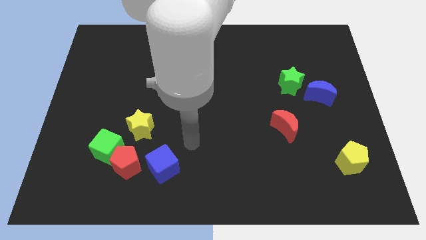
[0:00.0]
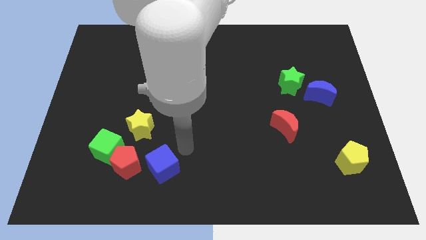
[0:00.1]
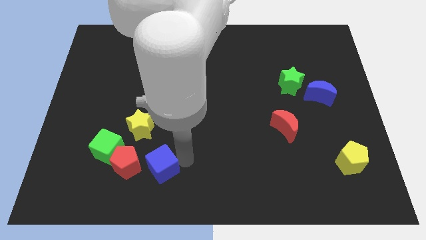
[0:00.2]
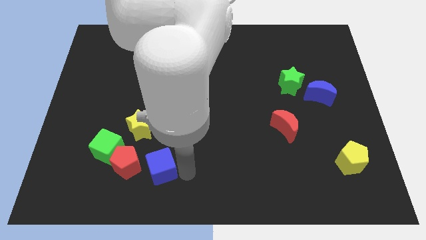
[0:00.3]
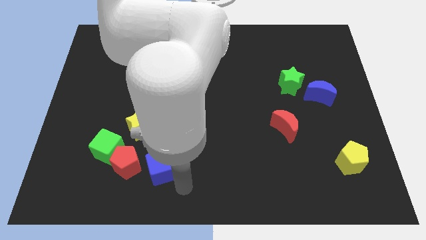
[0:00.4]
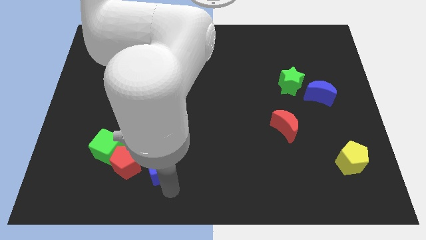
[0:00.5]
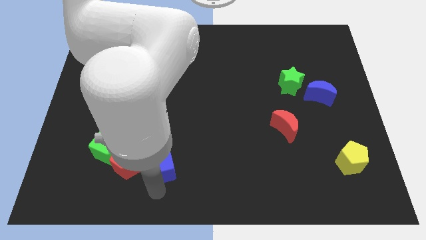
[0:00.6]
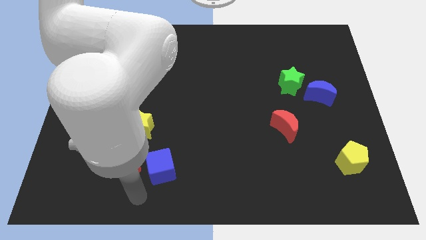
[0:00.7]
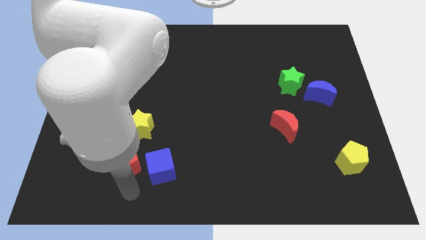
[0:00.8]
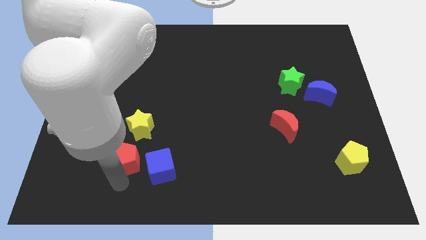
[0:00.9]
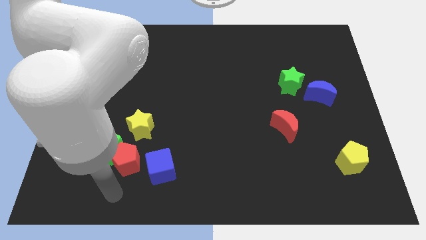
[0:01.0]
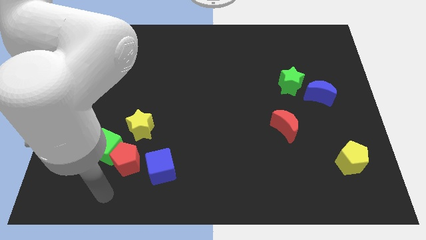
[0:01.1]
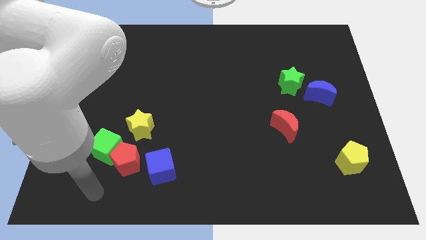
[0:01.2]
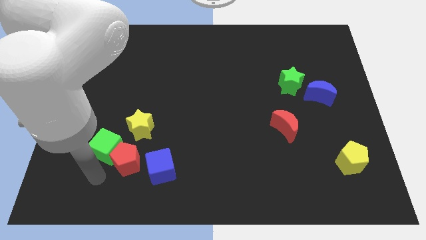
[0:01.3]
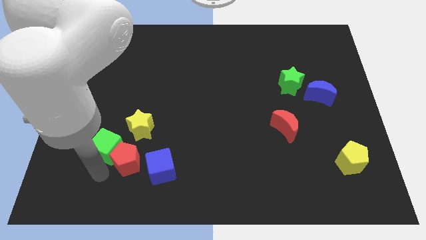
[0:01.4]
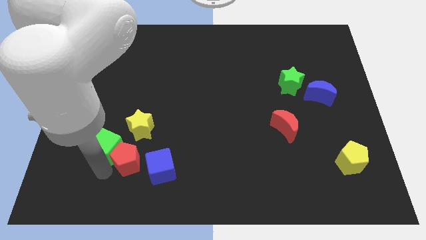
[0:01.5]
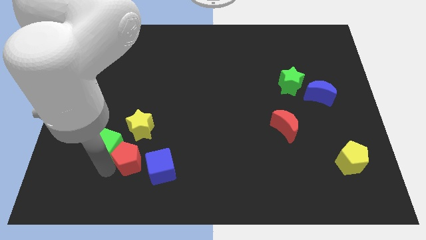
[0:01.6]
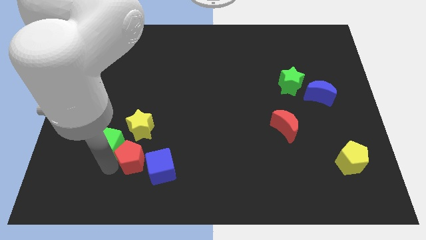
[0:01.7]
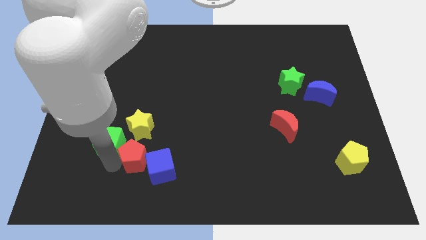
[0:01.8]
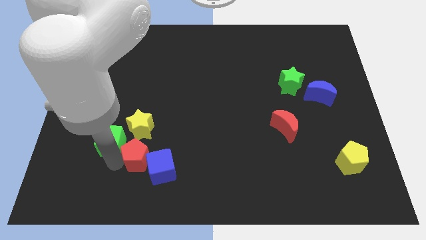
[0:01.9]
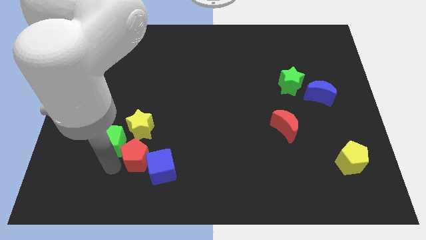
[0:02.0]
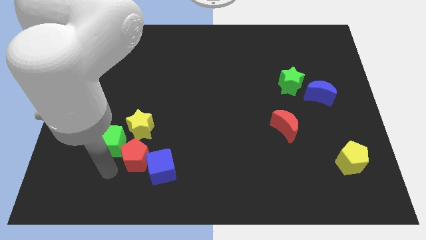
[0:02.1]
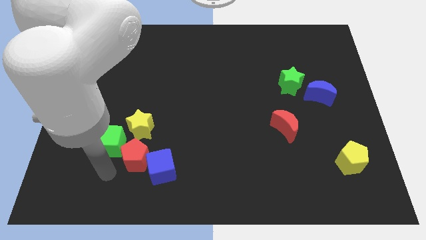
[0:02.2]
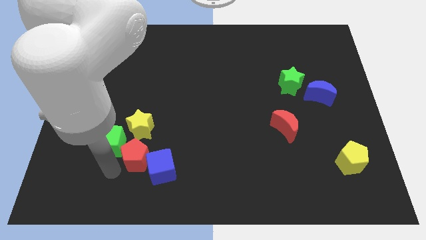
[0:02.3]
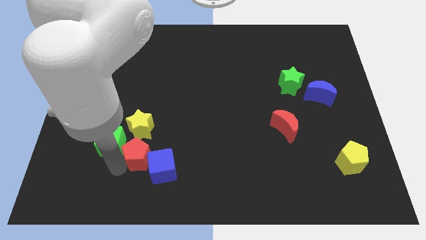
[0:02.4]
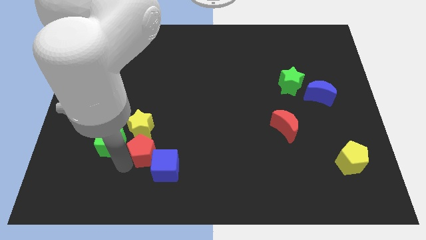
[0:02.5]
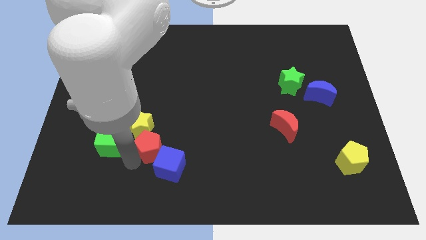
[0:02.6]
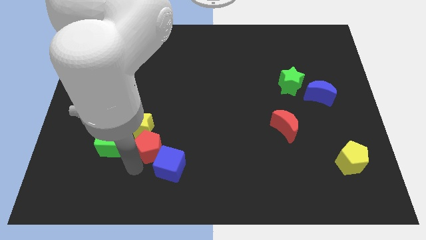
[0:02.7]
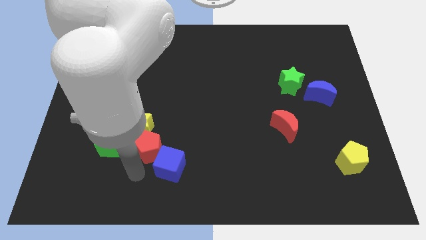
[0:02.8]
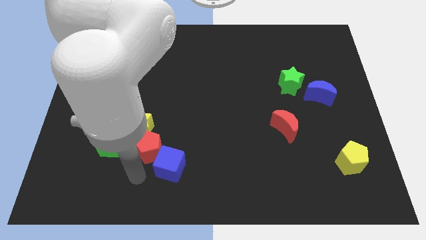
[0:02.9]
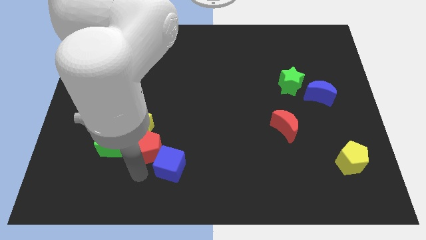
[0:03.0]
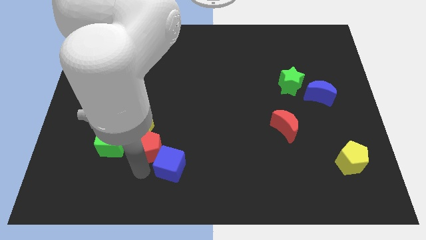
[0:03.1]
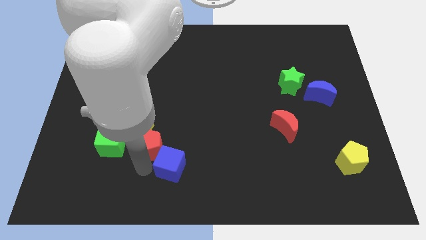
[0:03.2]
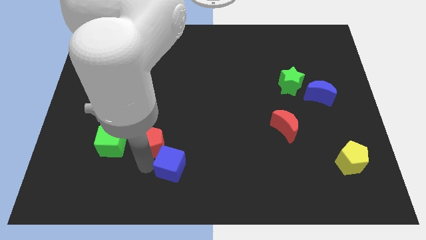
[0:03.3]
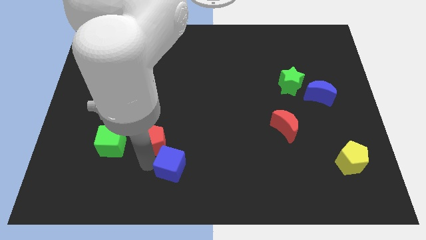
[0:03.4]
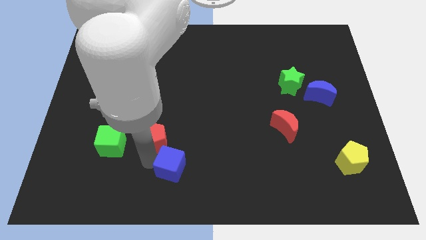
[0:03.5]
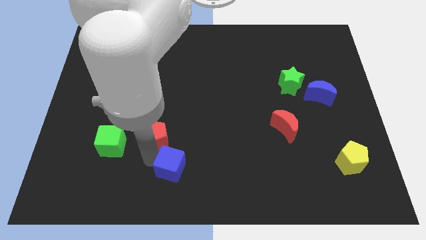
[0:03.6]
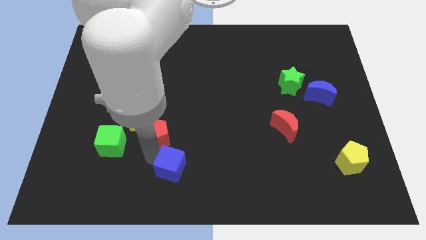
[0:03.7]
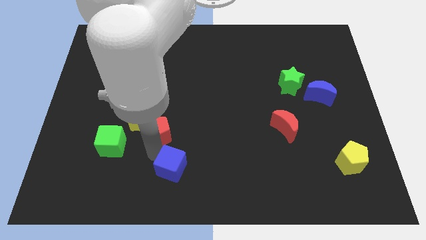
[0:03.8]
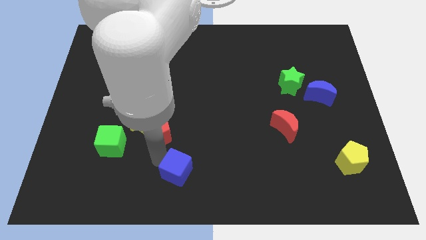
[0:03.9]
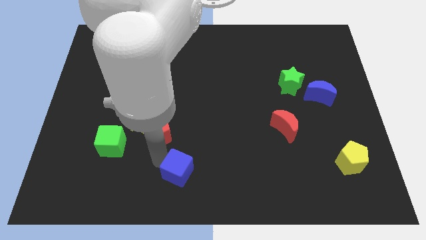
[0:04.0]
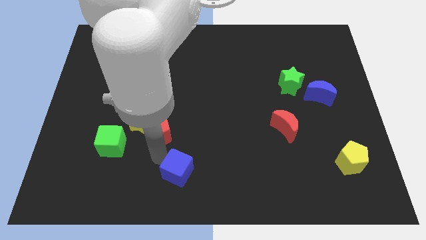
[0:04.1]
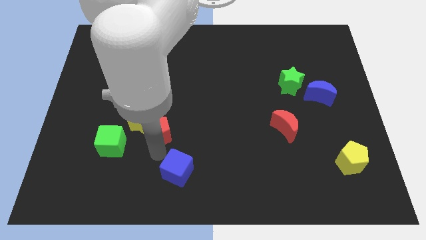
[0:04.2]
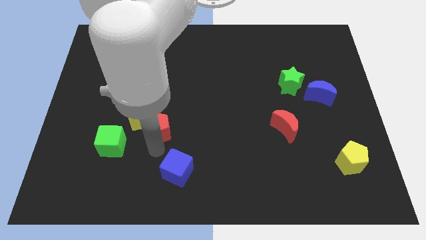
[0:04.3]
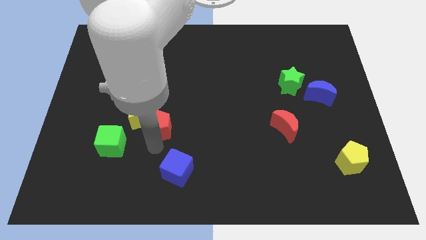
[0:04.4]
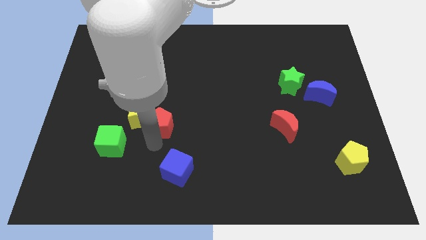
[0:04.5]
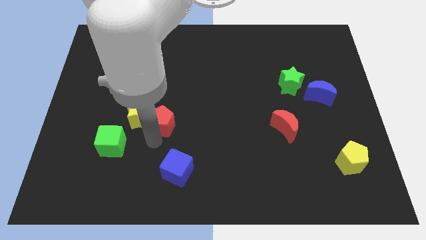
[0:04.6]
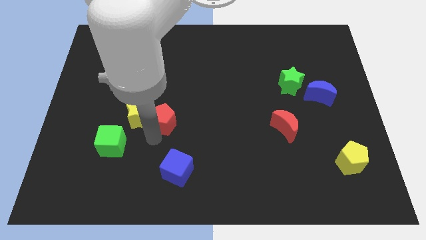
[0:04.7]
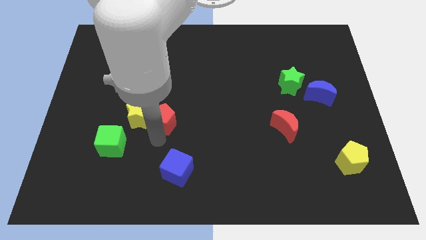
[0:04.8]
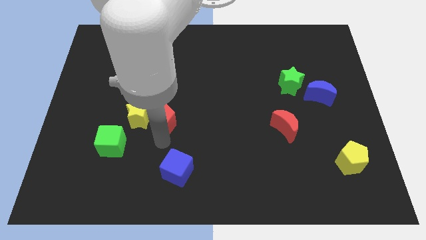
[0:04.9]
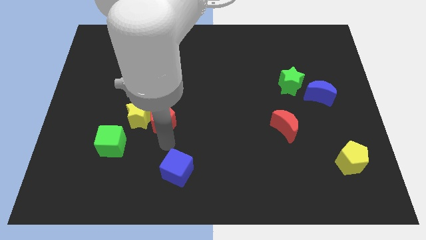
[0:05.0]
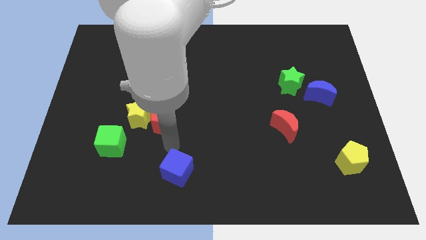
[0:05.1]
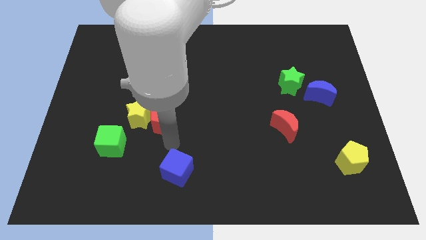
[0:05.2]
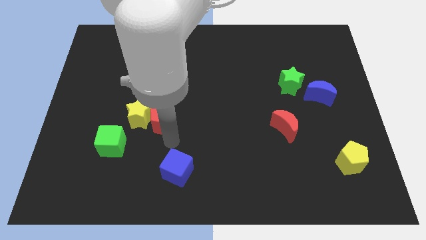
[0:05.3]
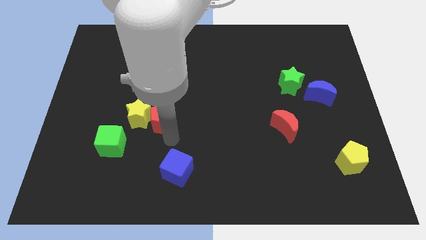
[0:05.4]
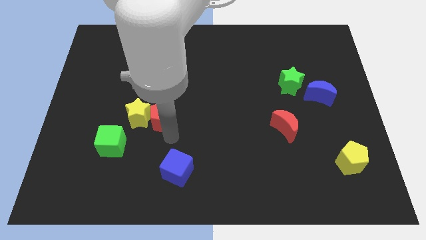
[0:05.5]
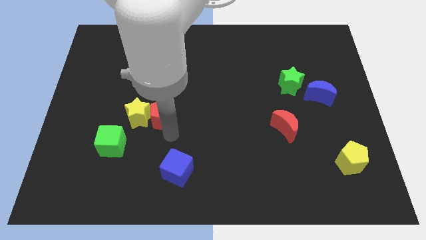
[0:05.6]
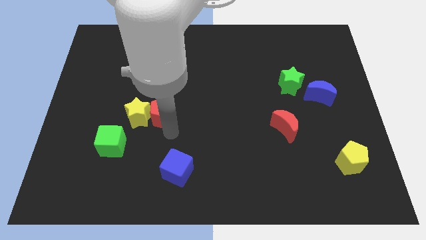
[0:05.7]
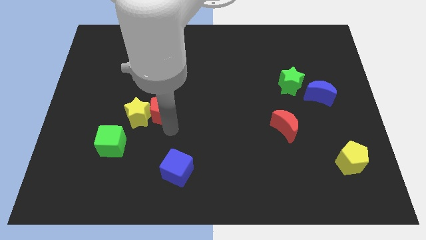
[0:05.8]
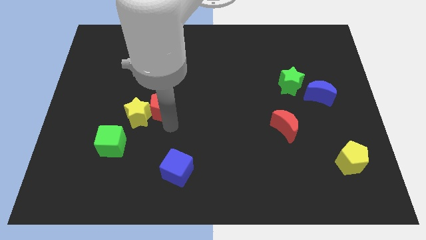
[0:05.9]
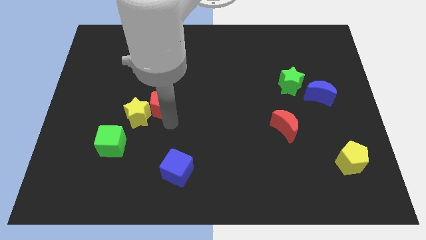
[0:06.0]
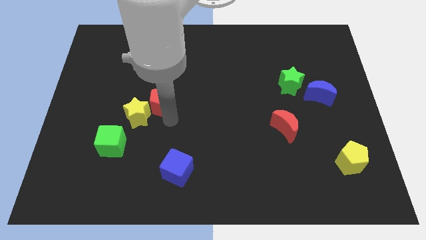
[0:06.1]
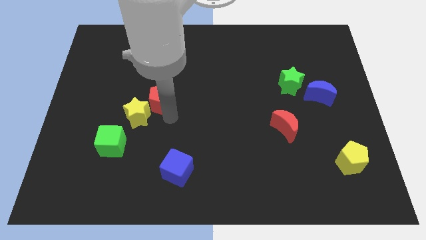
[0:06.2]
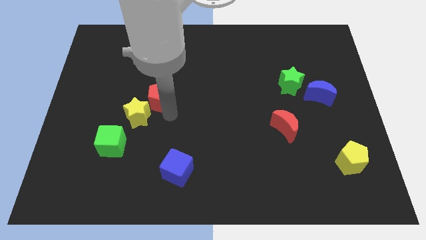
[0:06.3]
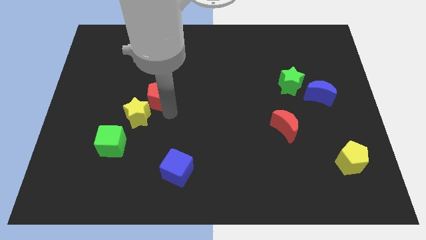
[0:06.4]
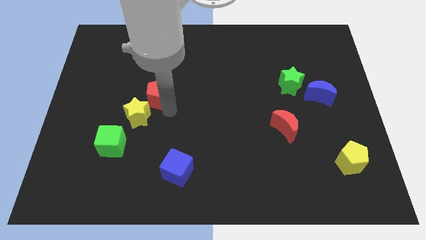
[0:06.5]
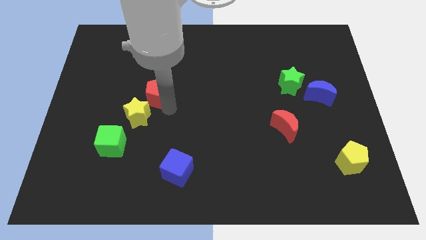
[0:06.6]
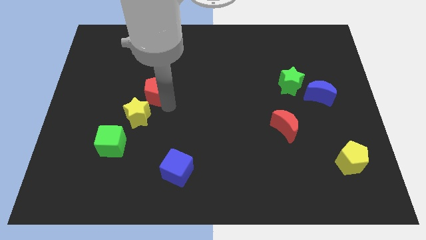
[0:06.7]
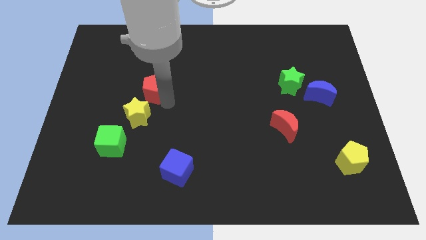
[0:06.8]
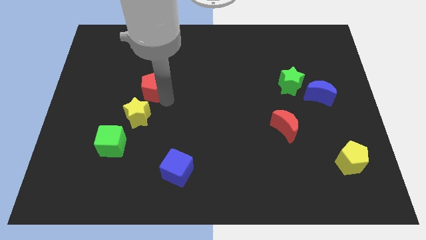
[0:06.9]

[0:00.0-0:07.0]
push the red pentagon up

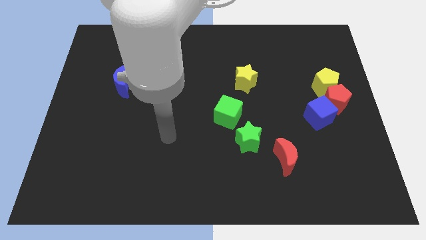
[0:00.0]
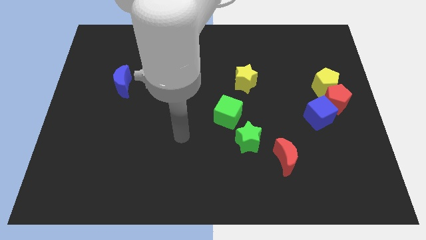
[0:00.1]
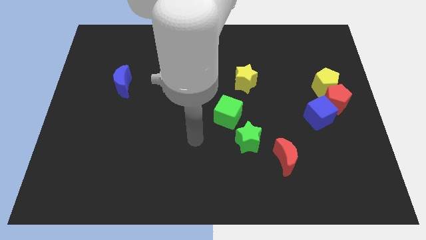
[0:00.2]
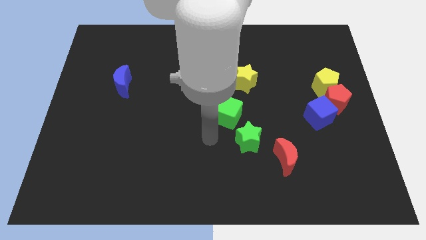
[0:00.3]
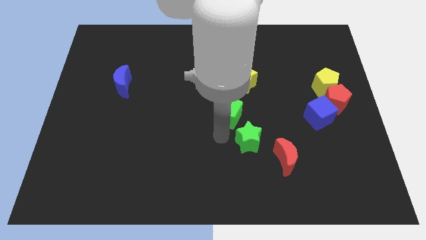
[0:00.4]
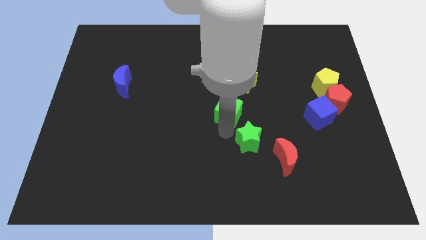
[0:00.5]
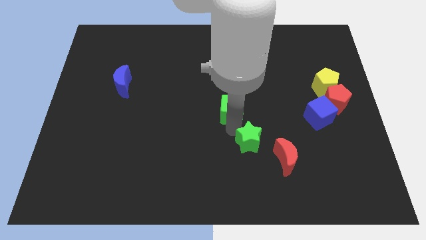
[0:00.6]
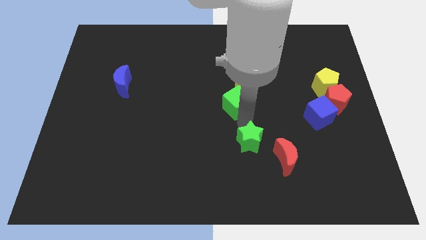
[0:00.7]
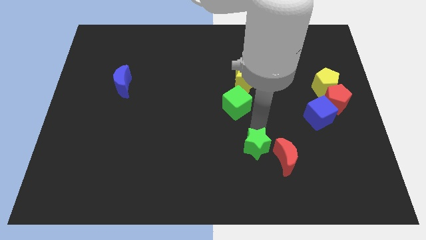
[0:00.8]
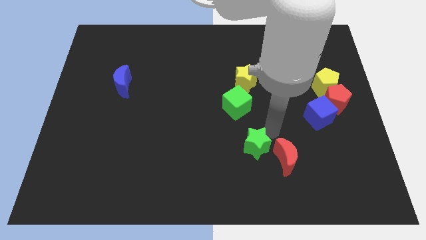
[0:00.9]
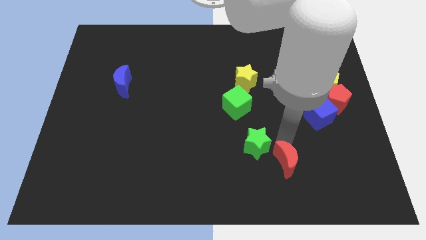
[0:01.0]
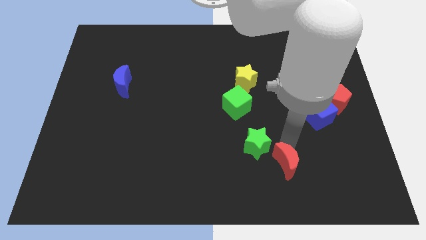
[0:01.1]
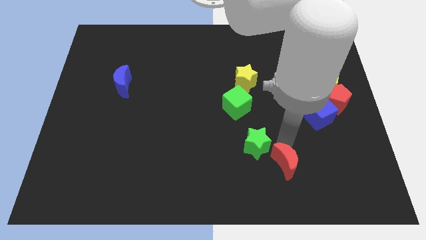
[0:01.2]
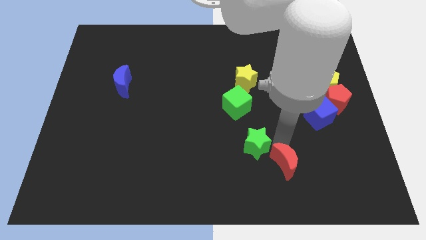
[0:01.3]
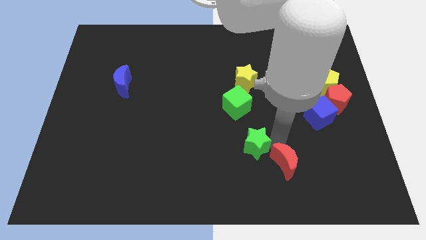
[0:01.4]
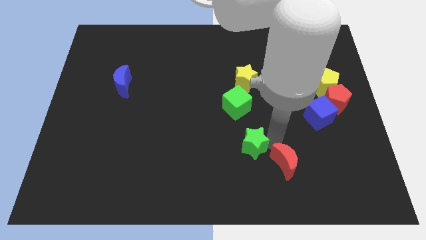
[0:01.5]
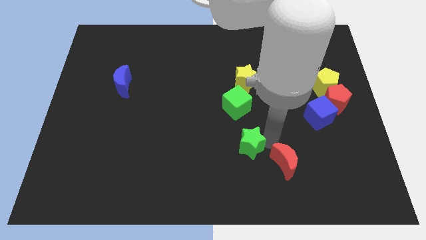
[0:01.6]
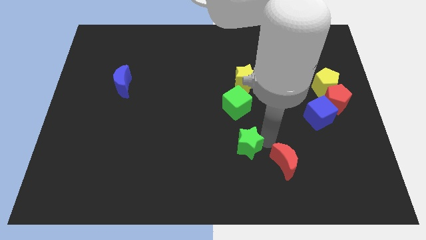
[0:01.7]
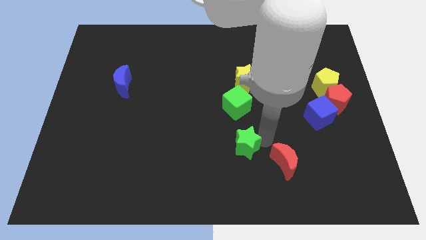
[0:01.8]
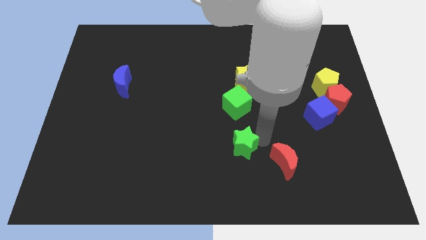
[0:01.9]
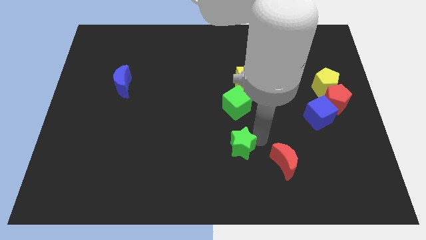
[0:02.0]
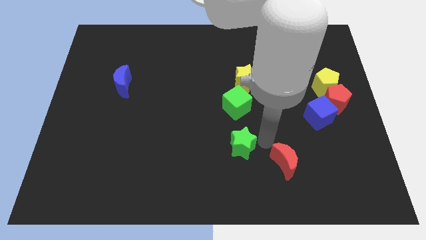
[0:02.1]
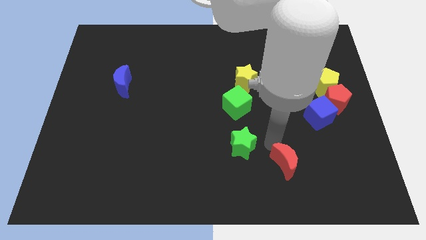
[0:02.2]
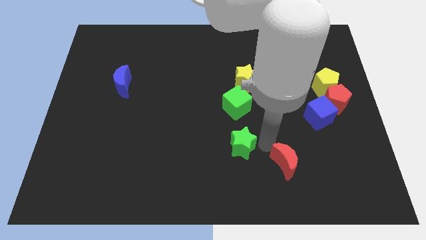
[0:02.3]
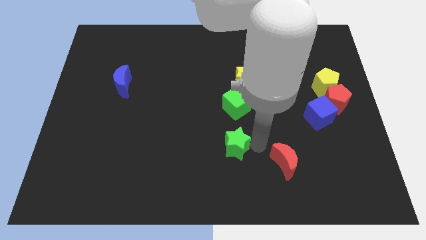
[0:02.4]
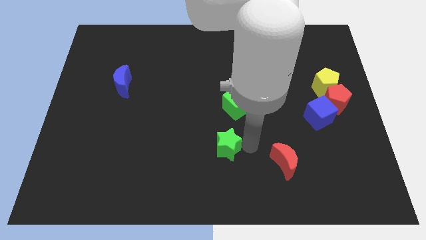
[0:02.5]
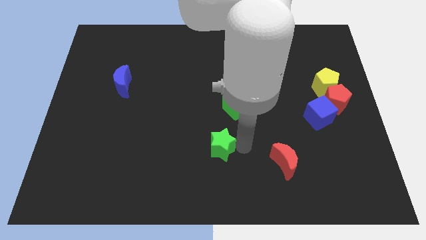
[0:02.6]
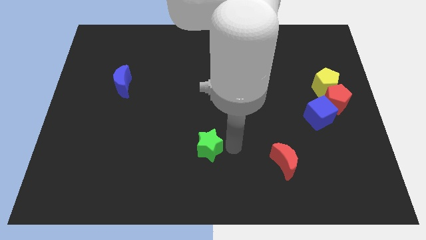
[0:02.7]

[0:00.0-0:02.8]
slightly push the green star to the left
